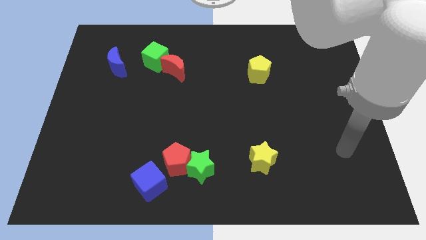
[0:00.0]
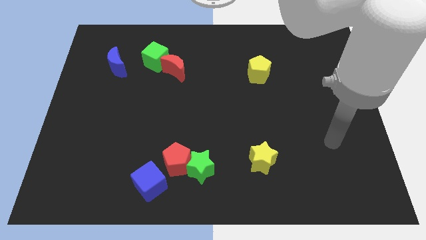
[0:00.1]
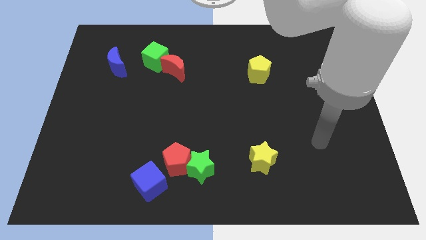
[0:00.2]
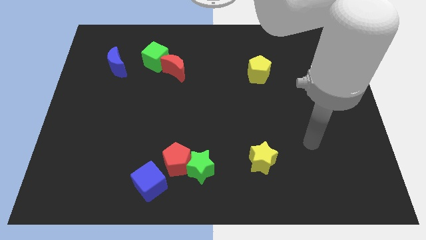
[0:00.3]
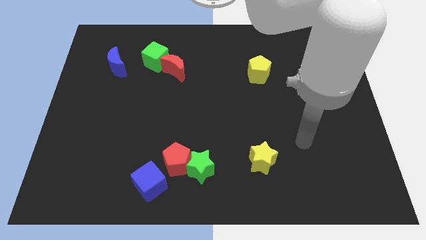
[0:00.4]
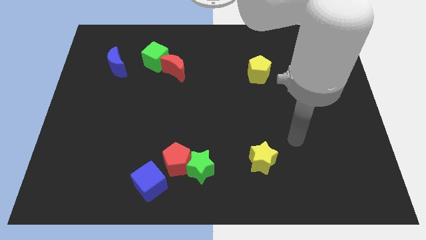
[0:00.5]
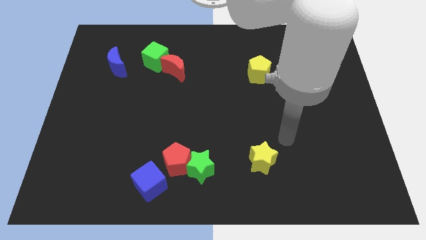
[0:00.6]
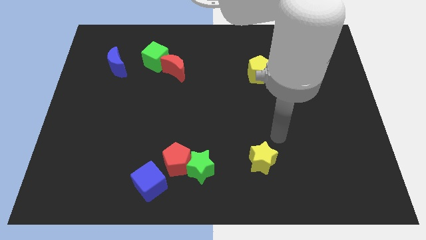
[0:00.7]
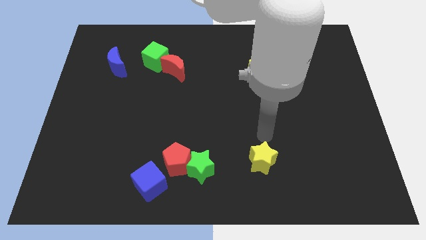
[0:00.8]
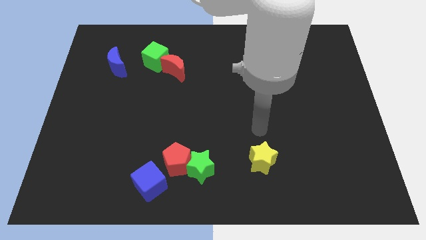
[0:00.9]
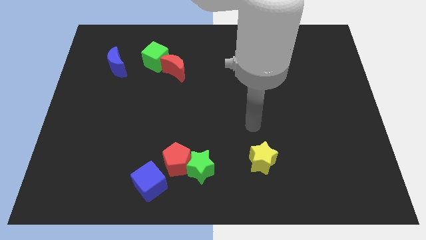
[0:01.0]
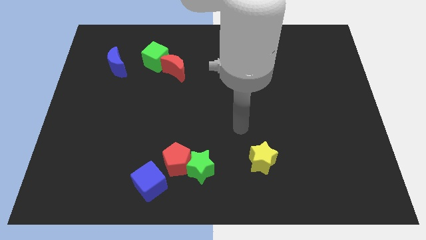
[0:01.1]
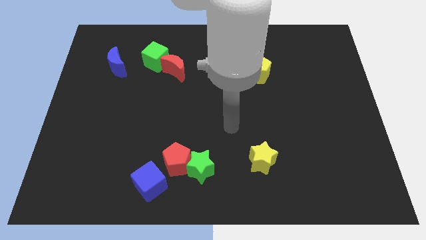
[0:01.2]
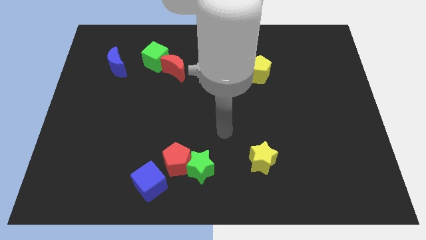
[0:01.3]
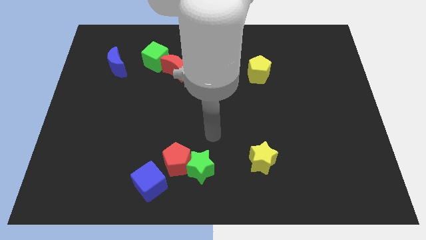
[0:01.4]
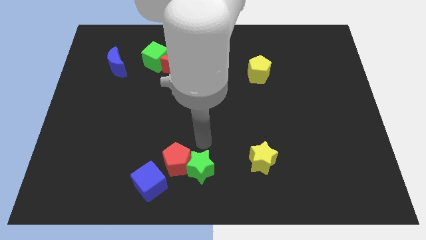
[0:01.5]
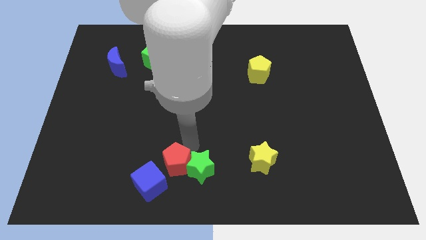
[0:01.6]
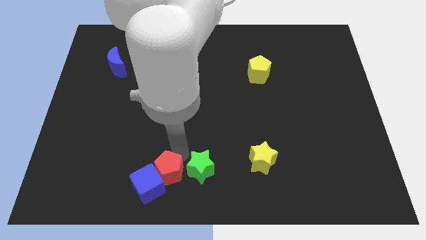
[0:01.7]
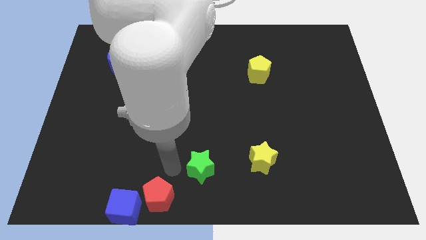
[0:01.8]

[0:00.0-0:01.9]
pull the green star apart from the red pentagon

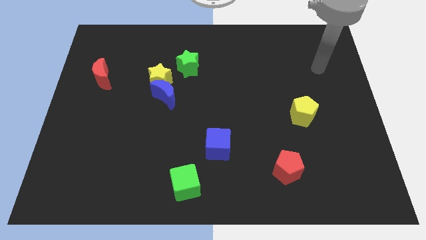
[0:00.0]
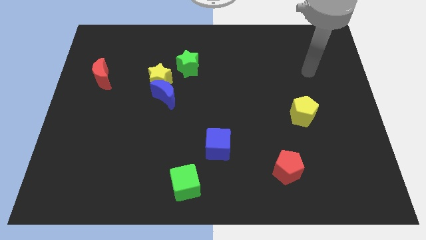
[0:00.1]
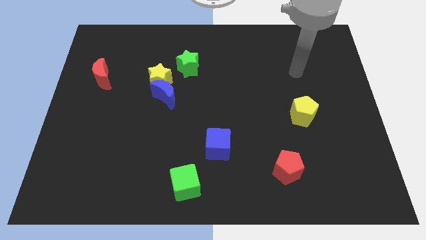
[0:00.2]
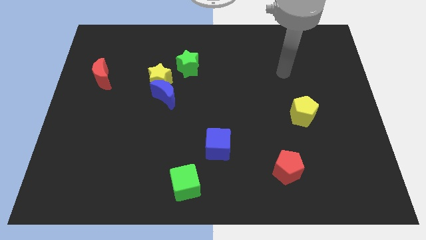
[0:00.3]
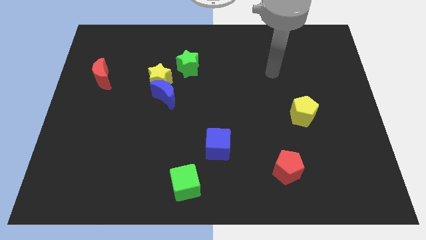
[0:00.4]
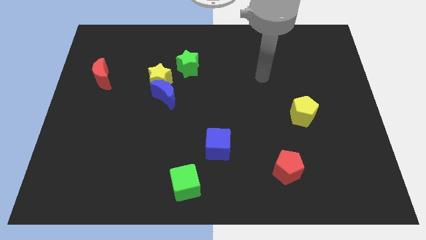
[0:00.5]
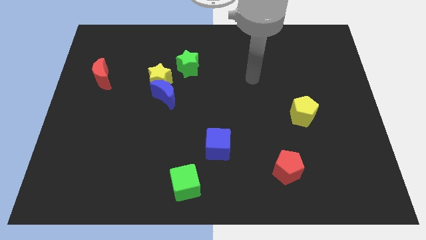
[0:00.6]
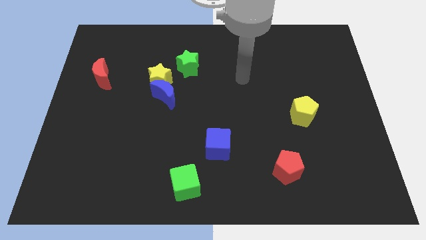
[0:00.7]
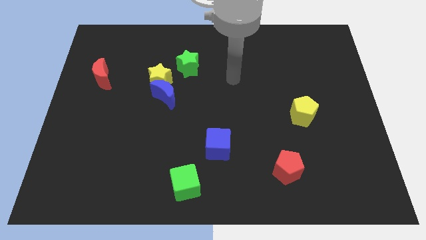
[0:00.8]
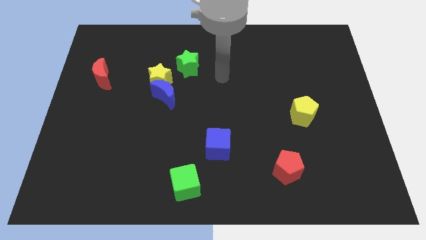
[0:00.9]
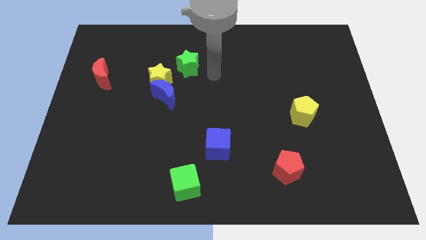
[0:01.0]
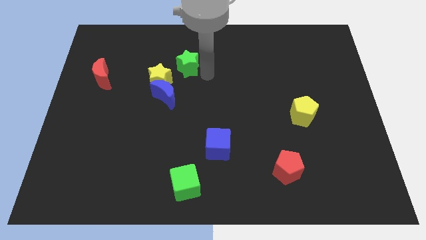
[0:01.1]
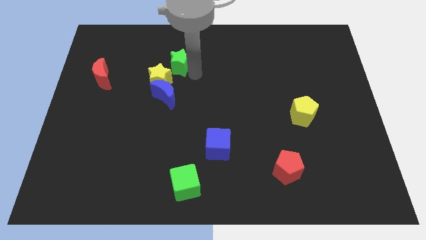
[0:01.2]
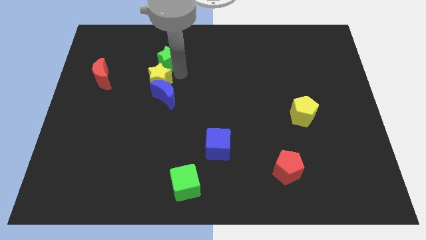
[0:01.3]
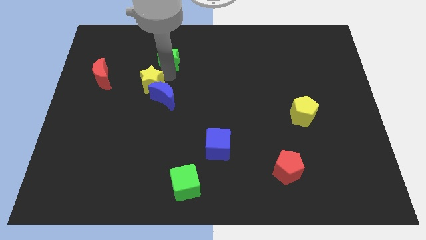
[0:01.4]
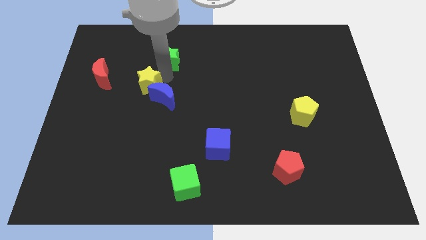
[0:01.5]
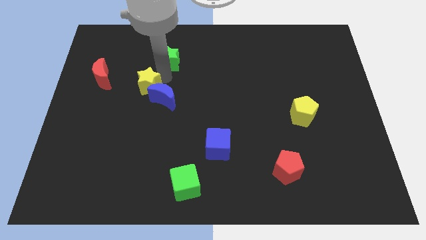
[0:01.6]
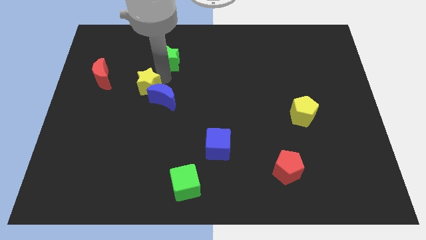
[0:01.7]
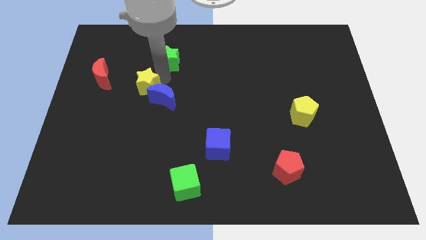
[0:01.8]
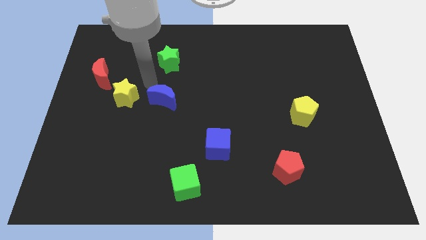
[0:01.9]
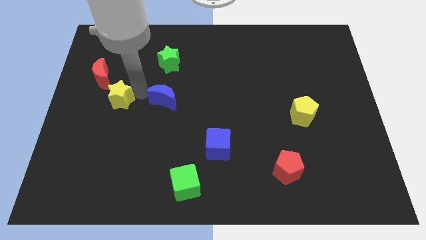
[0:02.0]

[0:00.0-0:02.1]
move the blue moon away from the yellow star

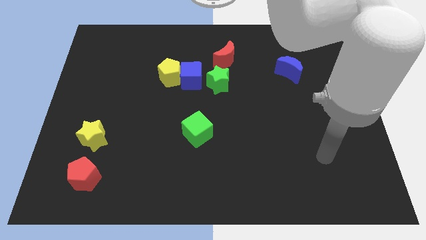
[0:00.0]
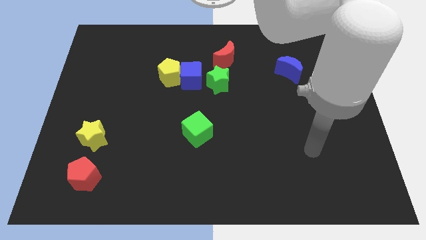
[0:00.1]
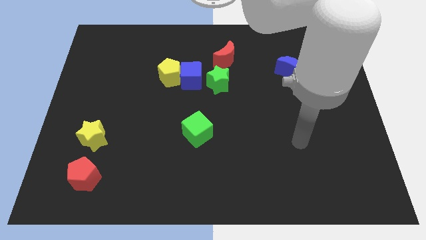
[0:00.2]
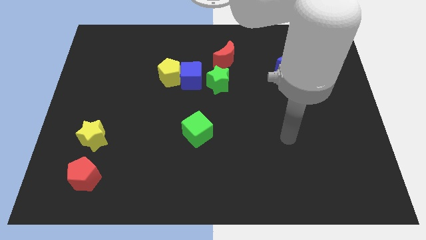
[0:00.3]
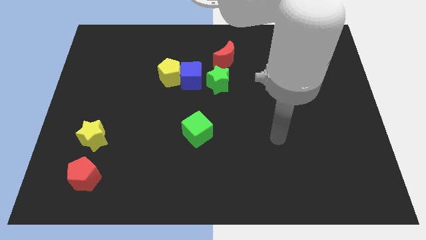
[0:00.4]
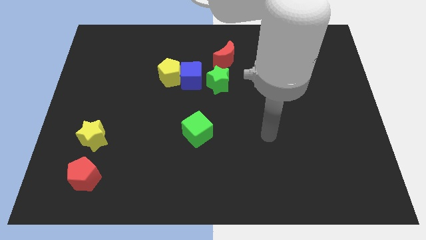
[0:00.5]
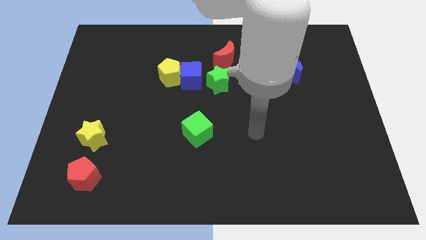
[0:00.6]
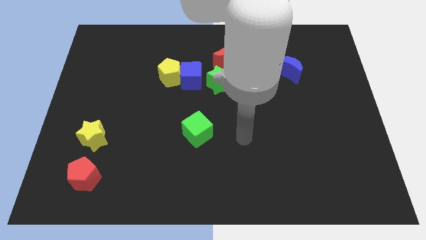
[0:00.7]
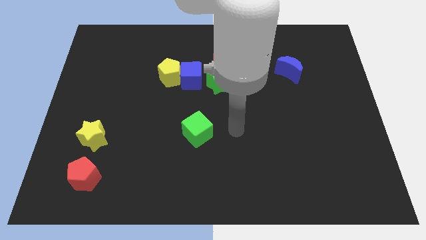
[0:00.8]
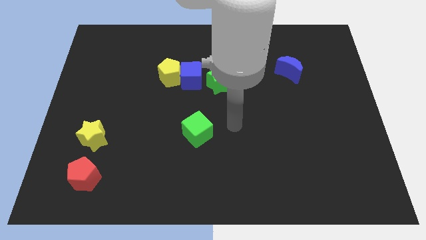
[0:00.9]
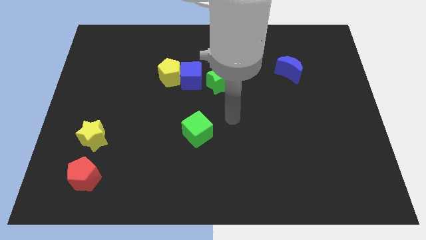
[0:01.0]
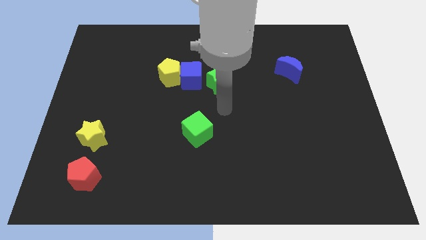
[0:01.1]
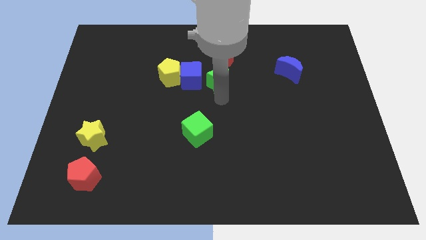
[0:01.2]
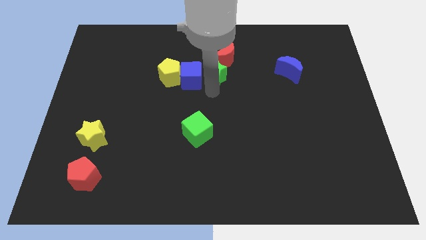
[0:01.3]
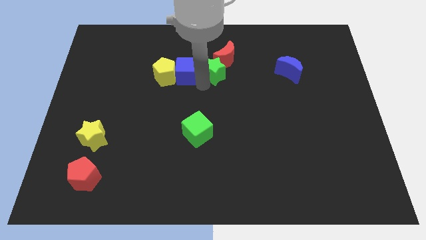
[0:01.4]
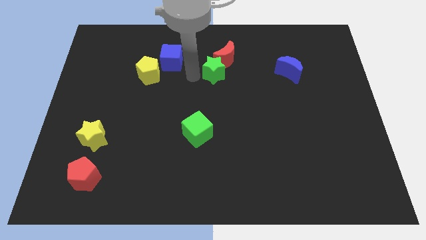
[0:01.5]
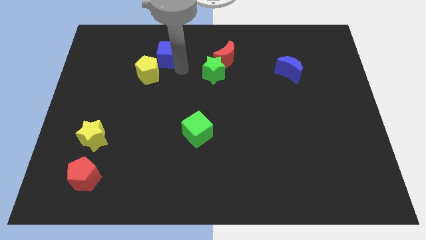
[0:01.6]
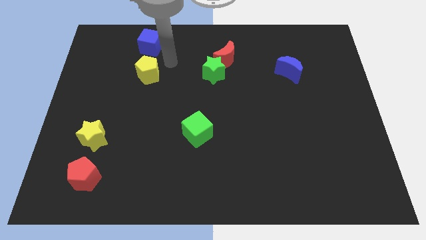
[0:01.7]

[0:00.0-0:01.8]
pull the yellow pentagon apart from the blue cube

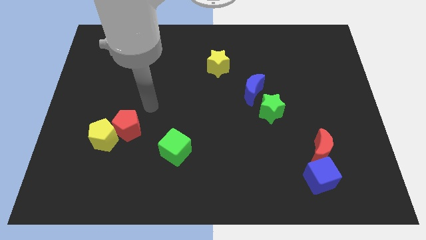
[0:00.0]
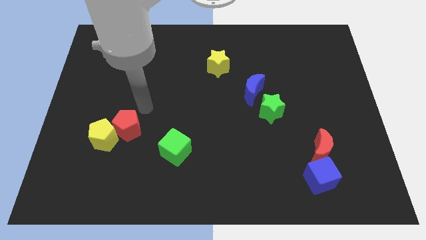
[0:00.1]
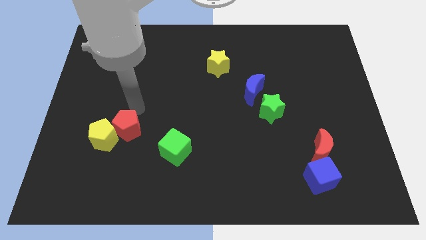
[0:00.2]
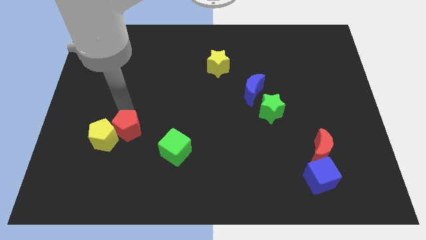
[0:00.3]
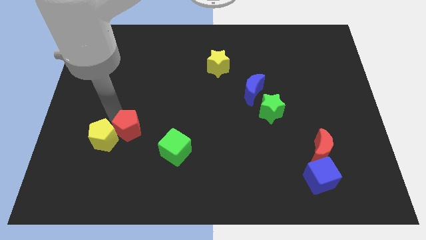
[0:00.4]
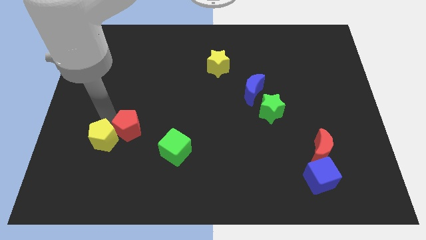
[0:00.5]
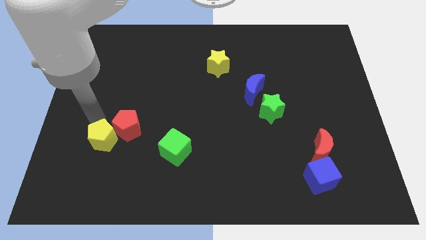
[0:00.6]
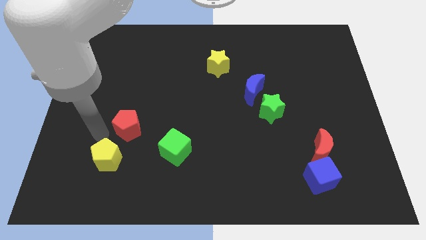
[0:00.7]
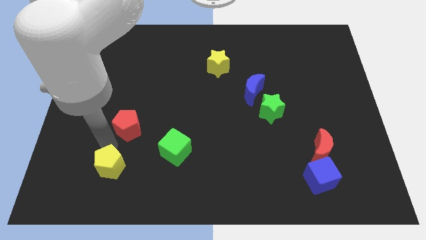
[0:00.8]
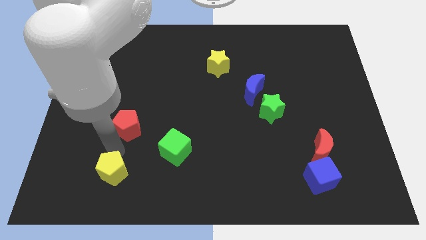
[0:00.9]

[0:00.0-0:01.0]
separate the red pentagon from the yellow pentagon

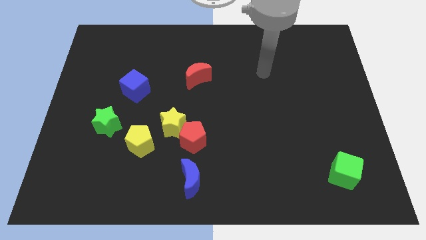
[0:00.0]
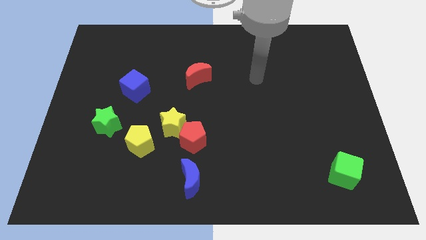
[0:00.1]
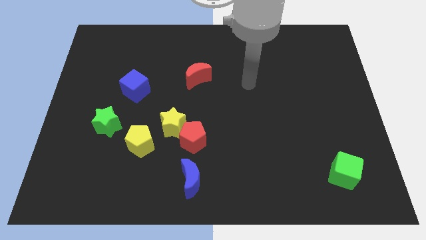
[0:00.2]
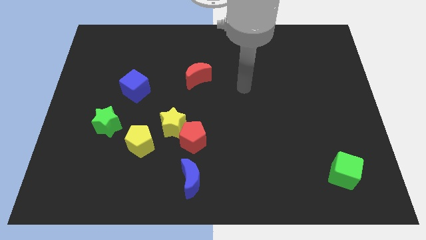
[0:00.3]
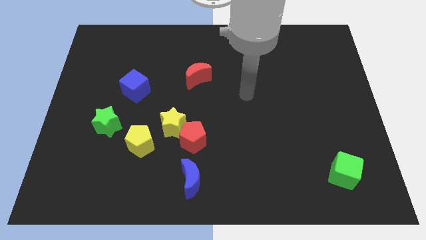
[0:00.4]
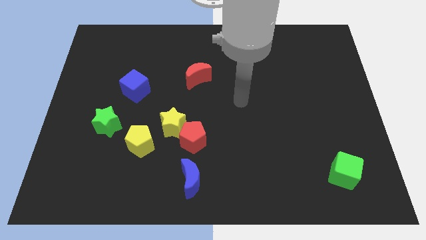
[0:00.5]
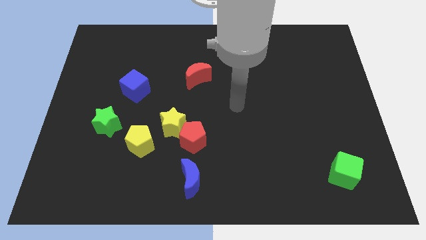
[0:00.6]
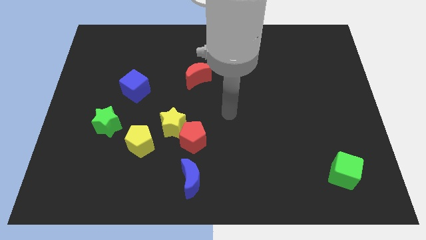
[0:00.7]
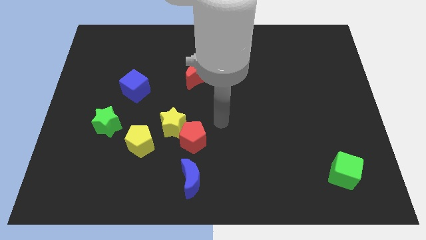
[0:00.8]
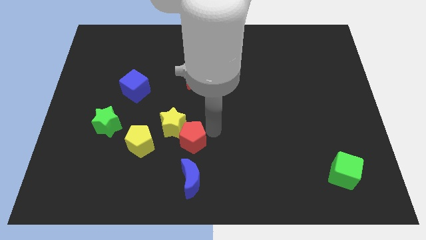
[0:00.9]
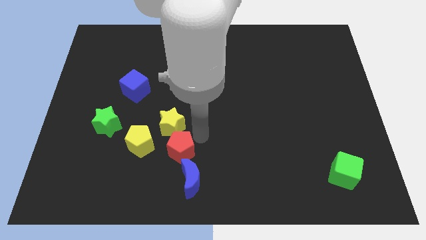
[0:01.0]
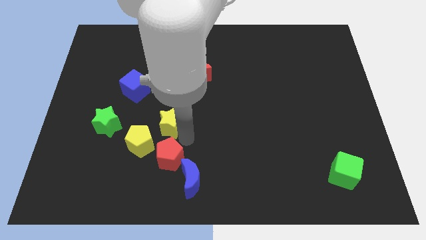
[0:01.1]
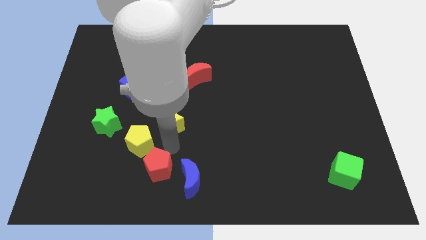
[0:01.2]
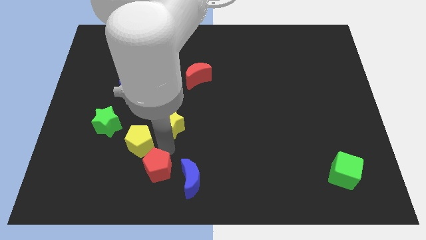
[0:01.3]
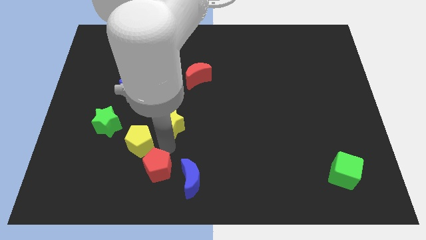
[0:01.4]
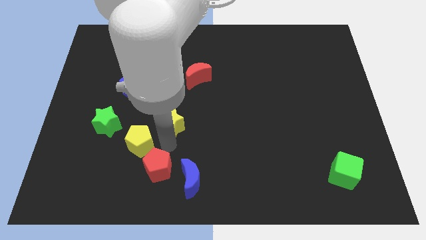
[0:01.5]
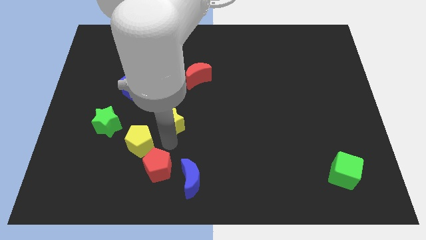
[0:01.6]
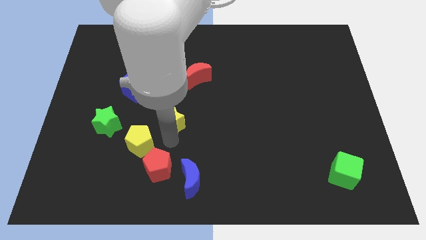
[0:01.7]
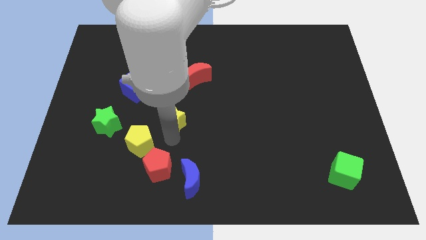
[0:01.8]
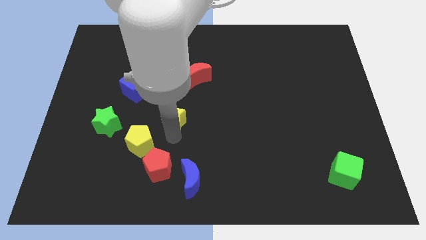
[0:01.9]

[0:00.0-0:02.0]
move the yellow star away from the red pentagon and yellow pentagon

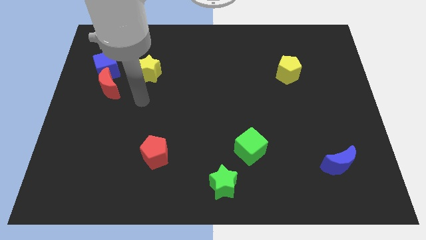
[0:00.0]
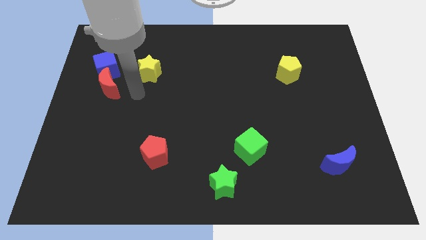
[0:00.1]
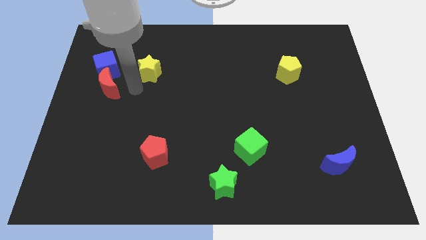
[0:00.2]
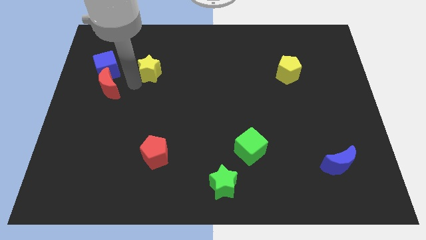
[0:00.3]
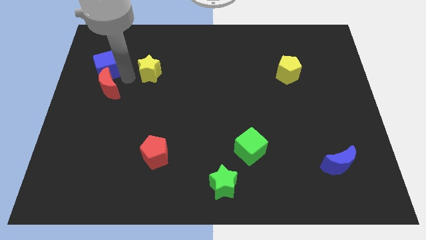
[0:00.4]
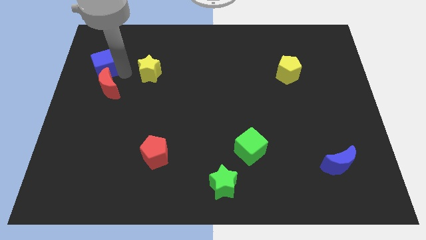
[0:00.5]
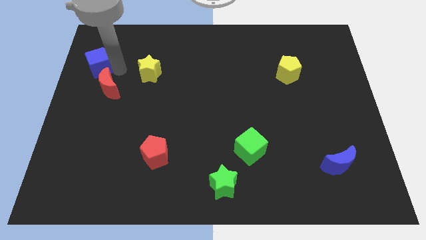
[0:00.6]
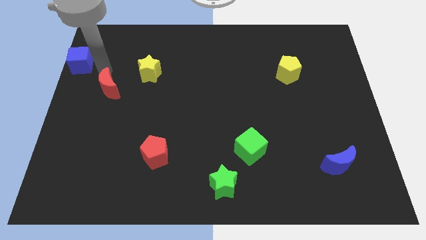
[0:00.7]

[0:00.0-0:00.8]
separate the red moon from the blue cube
